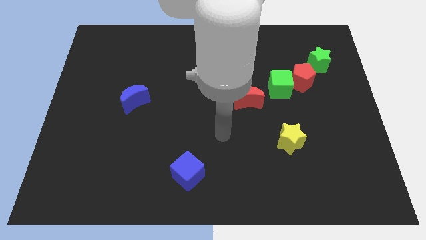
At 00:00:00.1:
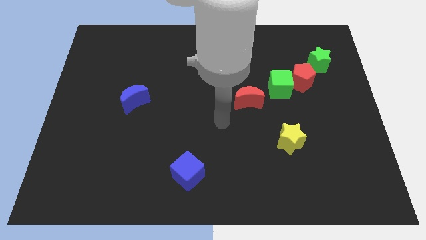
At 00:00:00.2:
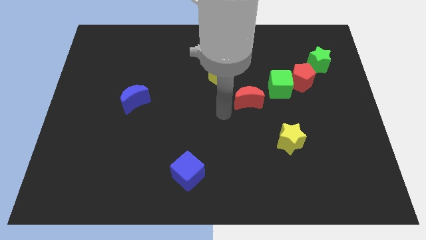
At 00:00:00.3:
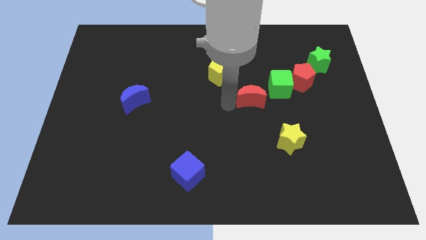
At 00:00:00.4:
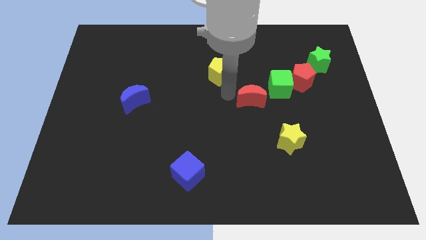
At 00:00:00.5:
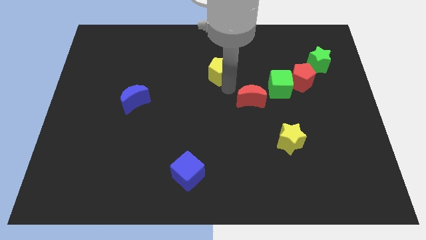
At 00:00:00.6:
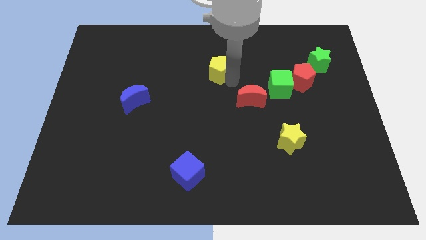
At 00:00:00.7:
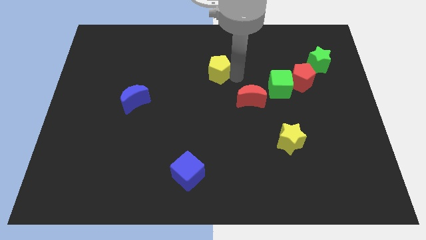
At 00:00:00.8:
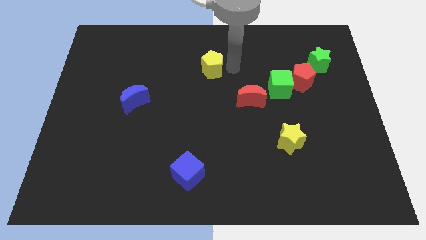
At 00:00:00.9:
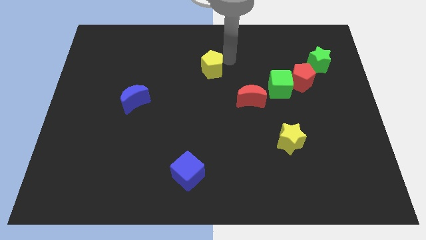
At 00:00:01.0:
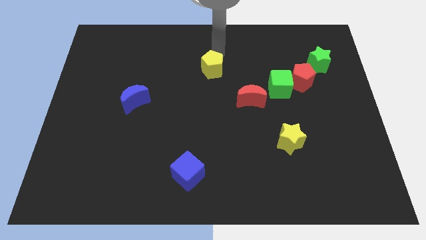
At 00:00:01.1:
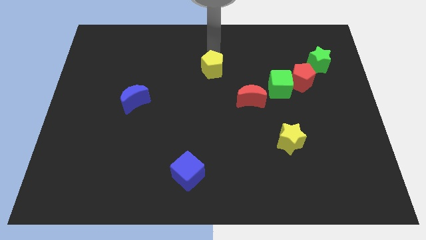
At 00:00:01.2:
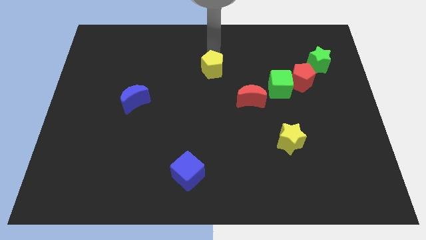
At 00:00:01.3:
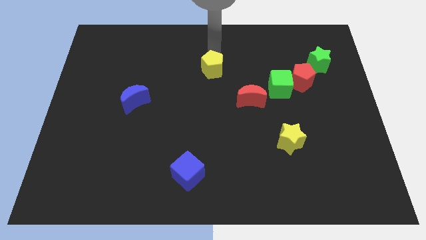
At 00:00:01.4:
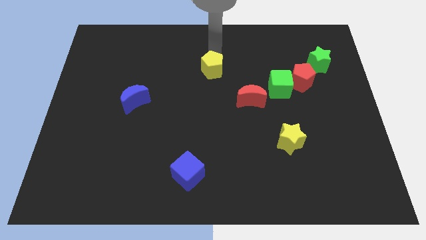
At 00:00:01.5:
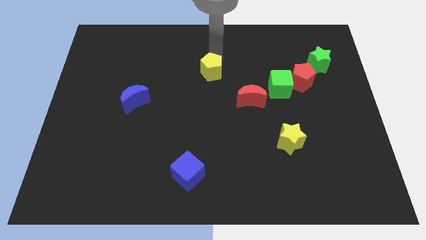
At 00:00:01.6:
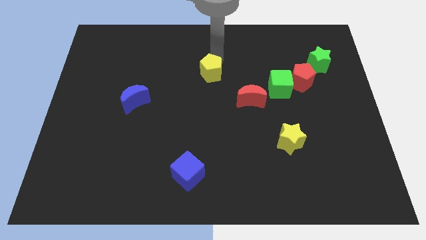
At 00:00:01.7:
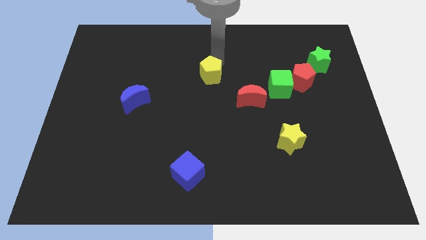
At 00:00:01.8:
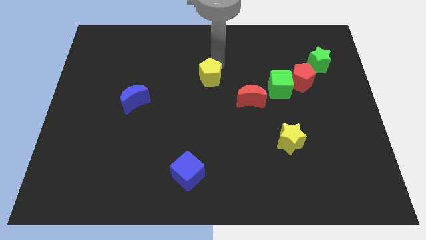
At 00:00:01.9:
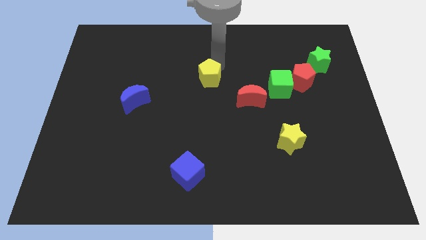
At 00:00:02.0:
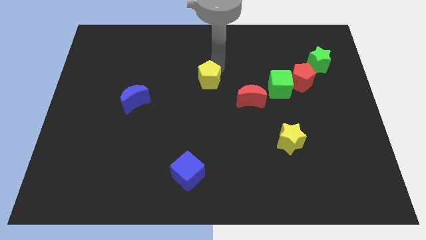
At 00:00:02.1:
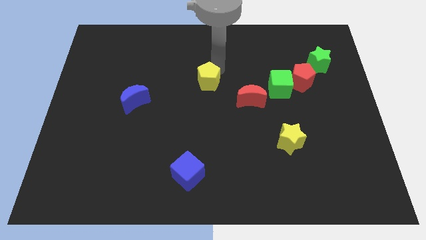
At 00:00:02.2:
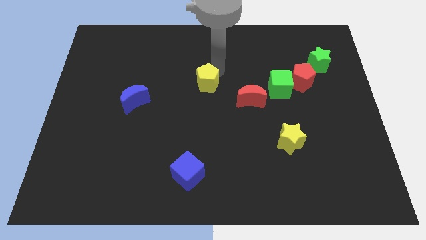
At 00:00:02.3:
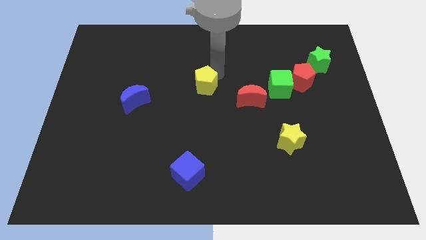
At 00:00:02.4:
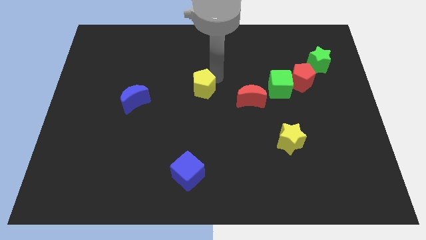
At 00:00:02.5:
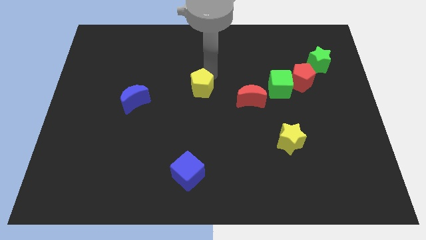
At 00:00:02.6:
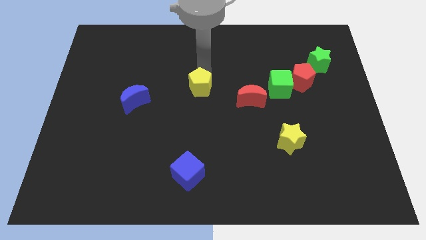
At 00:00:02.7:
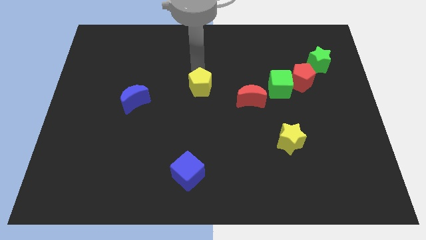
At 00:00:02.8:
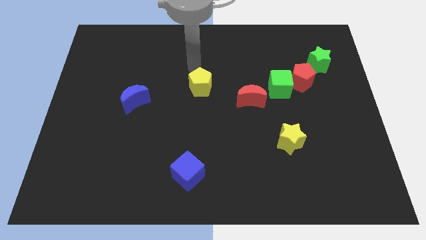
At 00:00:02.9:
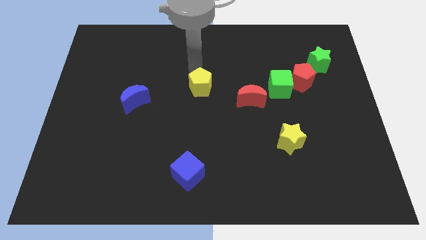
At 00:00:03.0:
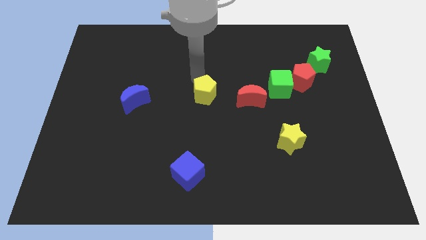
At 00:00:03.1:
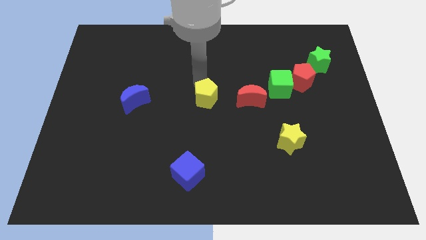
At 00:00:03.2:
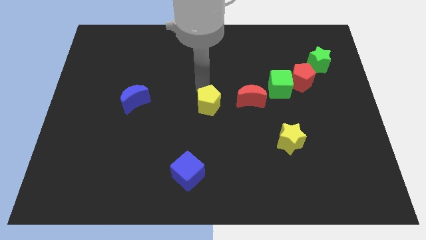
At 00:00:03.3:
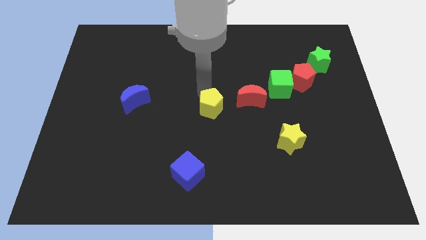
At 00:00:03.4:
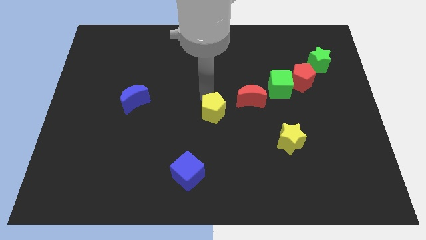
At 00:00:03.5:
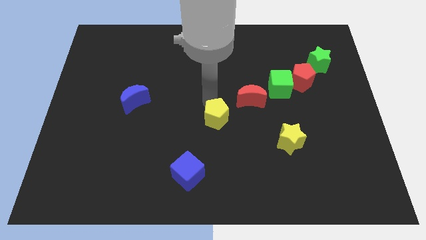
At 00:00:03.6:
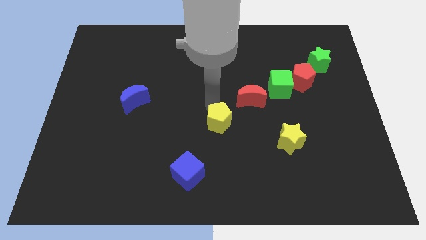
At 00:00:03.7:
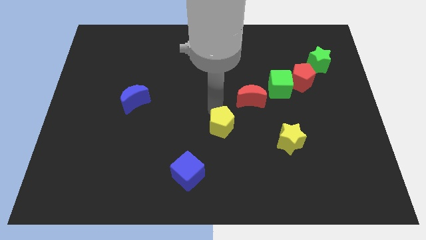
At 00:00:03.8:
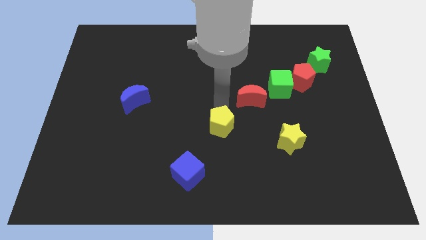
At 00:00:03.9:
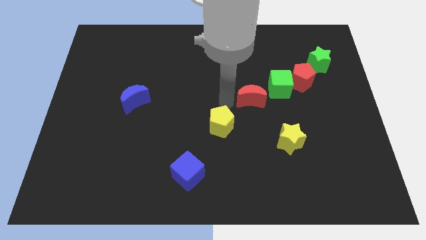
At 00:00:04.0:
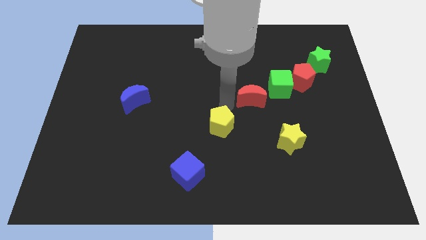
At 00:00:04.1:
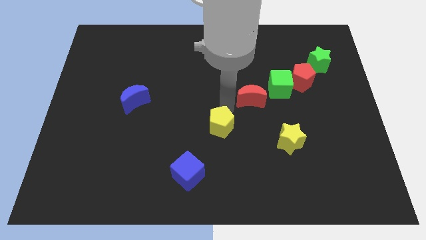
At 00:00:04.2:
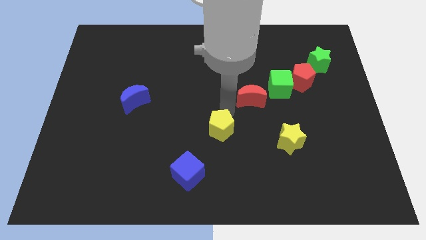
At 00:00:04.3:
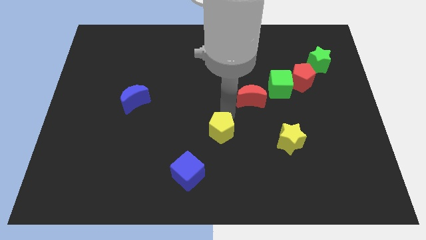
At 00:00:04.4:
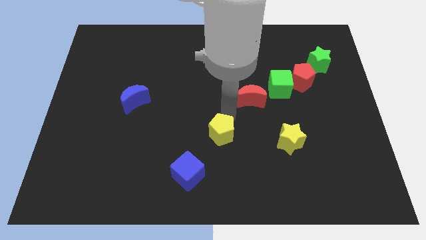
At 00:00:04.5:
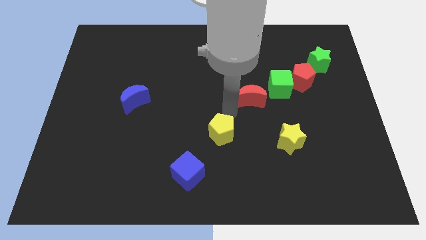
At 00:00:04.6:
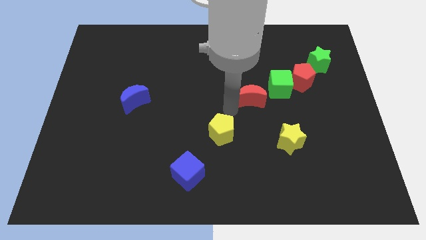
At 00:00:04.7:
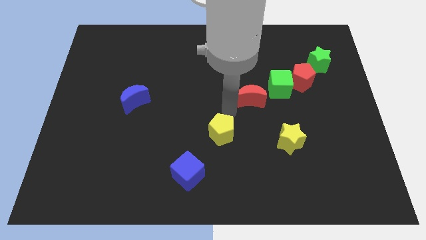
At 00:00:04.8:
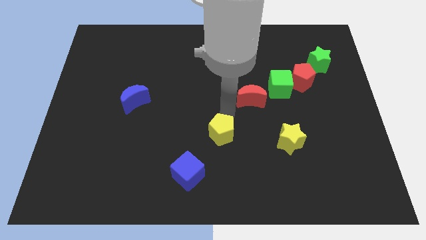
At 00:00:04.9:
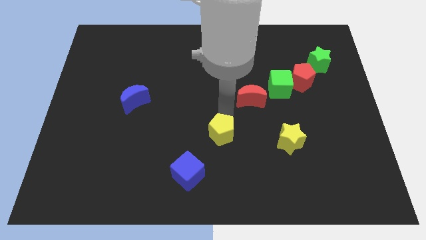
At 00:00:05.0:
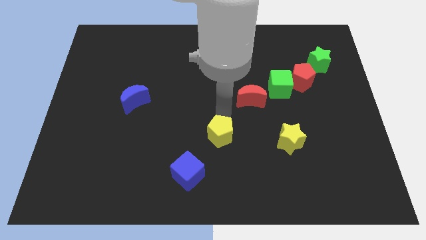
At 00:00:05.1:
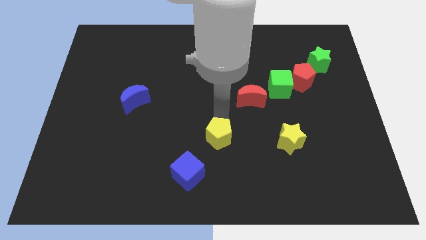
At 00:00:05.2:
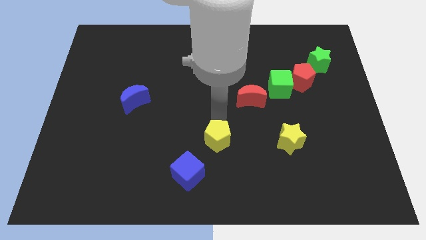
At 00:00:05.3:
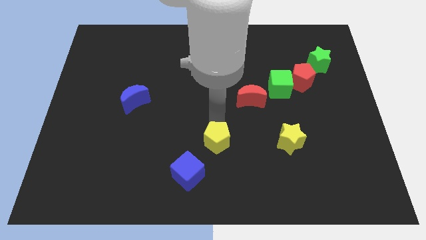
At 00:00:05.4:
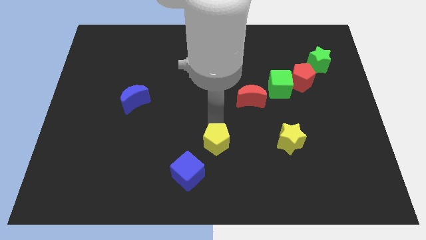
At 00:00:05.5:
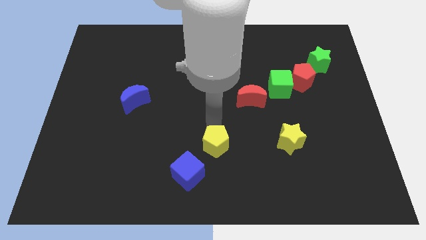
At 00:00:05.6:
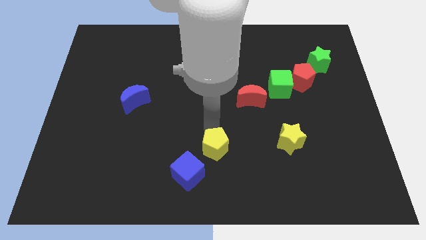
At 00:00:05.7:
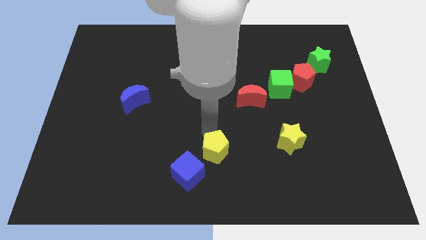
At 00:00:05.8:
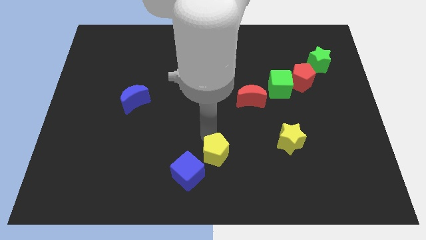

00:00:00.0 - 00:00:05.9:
push the yellow pentagon to the bottom
